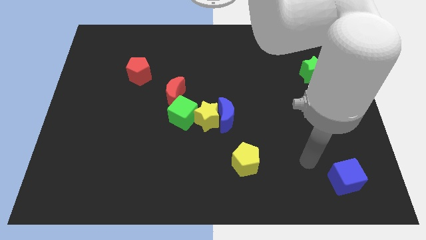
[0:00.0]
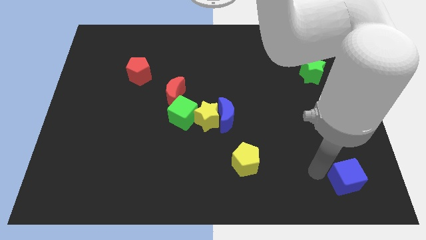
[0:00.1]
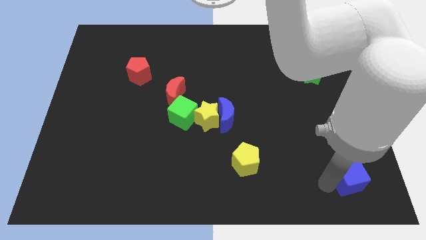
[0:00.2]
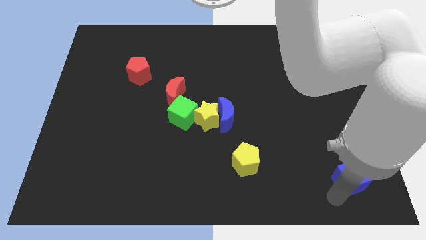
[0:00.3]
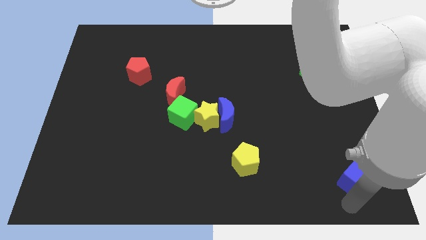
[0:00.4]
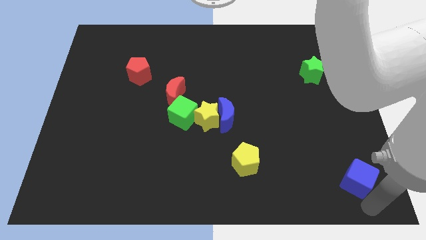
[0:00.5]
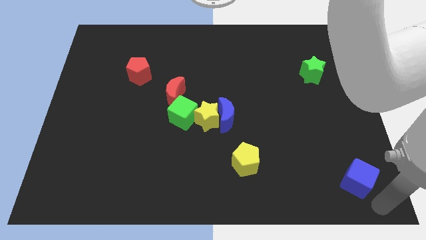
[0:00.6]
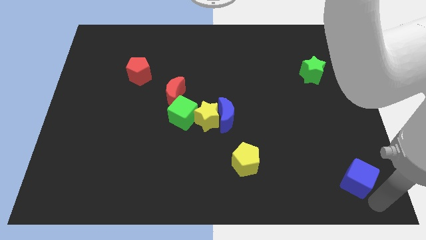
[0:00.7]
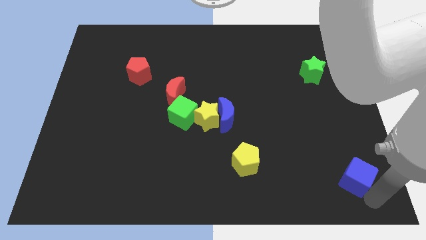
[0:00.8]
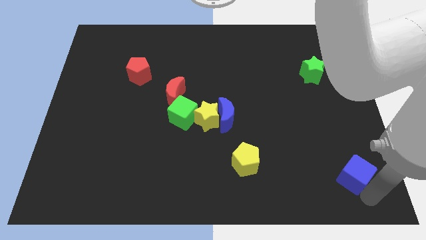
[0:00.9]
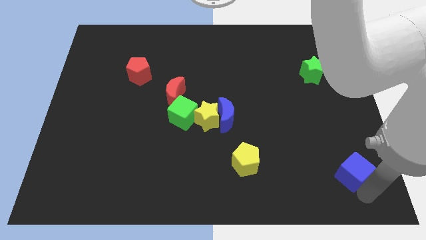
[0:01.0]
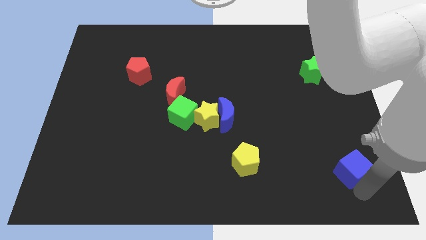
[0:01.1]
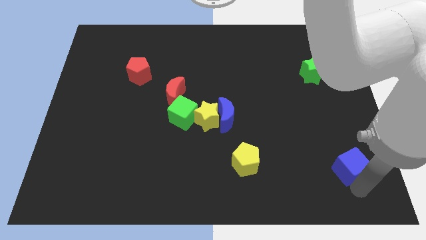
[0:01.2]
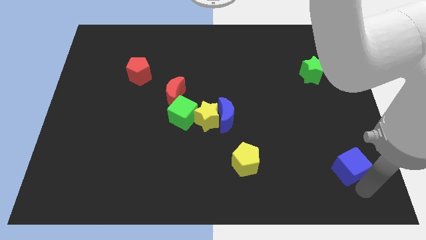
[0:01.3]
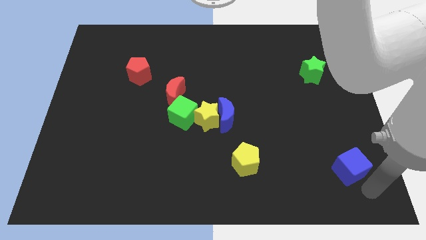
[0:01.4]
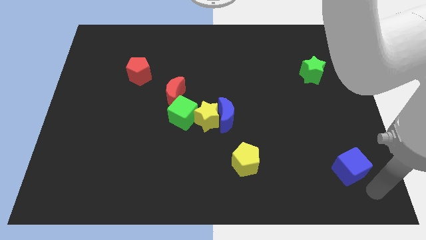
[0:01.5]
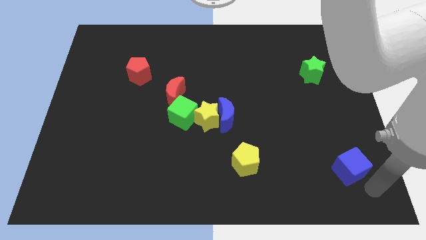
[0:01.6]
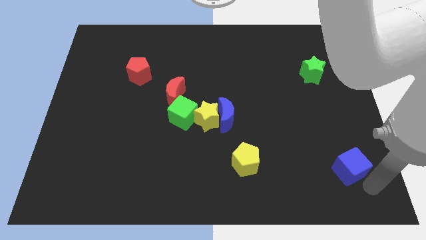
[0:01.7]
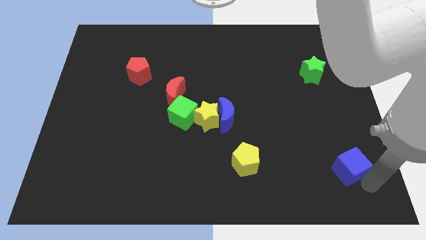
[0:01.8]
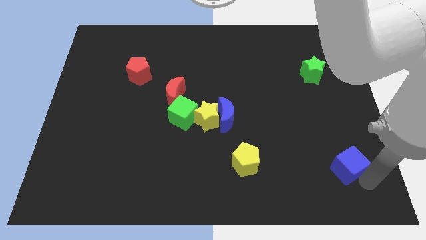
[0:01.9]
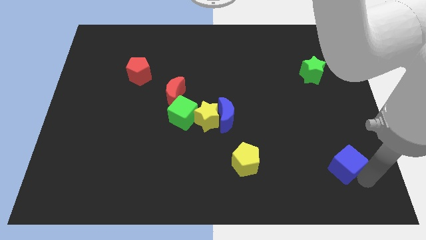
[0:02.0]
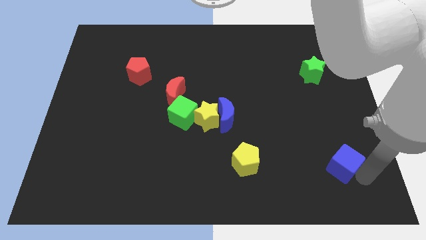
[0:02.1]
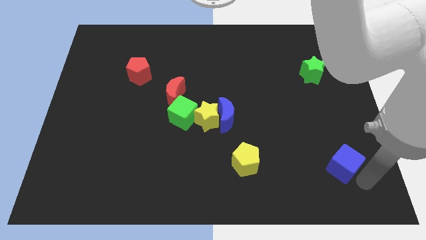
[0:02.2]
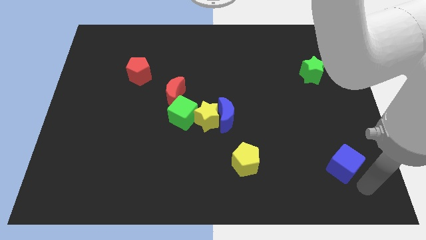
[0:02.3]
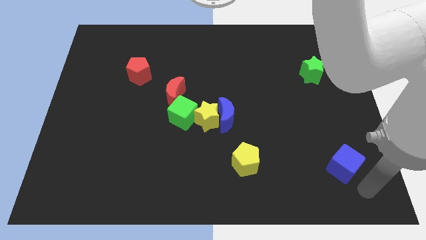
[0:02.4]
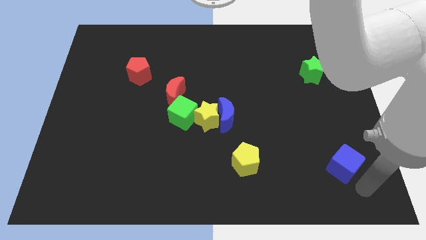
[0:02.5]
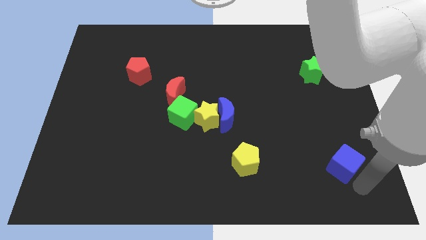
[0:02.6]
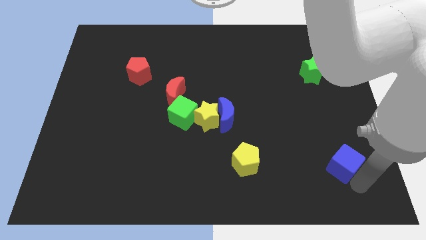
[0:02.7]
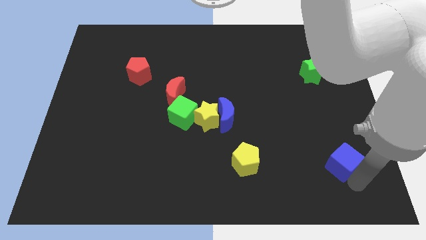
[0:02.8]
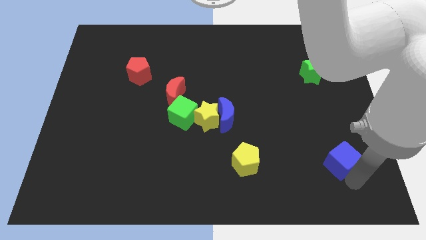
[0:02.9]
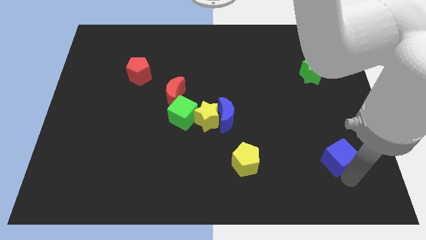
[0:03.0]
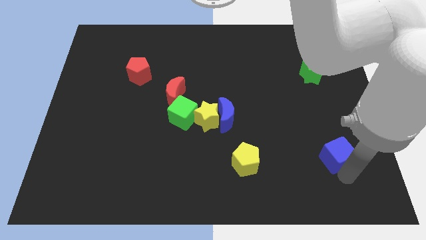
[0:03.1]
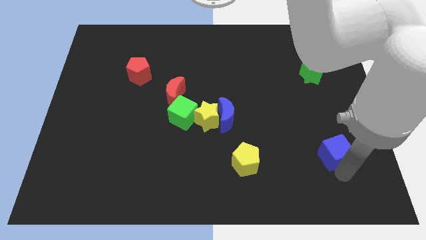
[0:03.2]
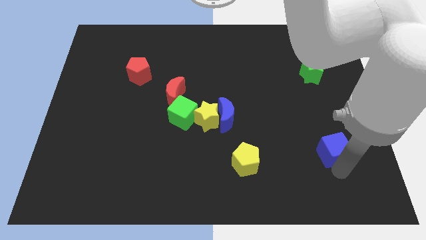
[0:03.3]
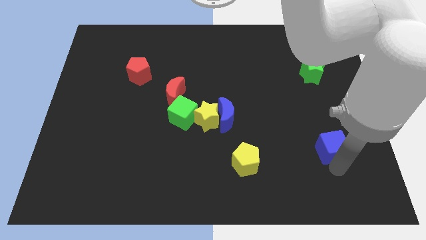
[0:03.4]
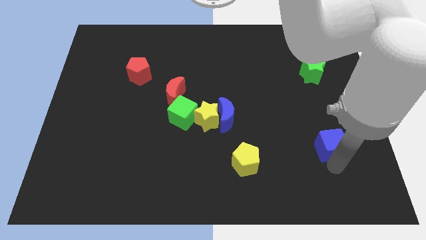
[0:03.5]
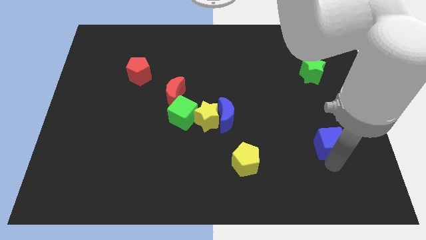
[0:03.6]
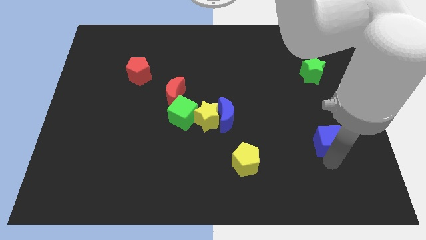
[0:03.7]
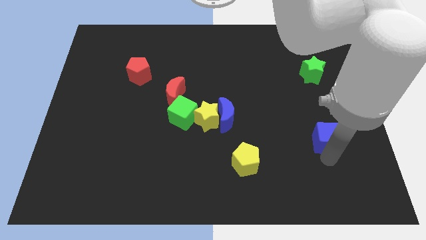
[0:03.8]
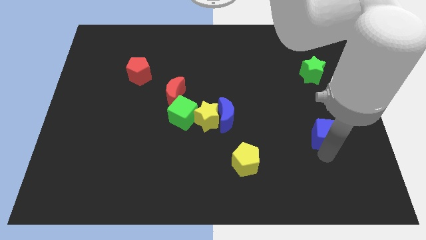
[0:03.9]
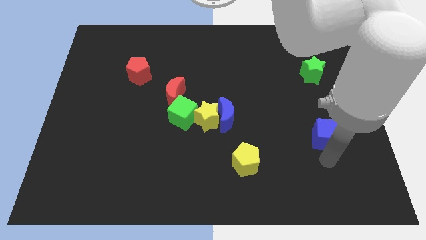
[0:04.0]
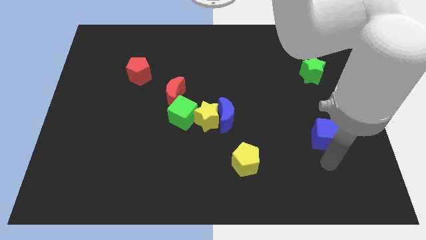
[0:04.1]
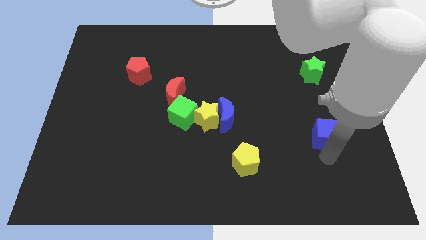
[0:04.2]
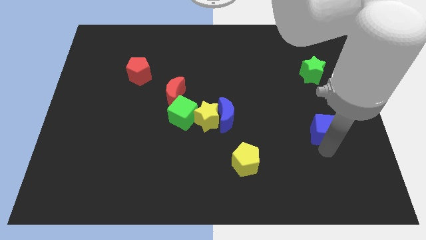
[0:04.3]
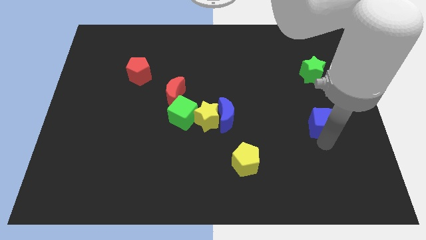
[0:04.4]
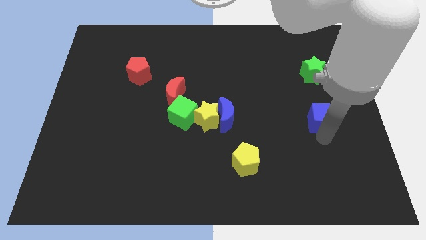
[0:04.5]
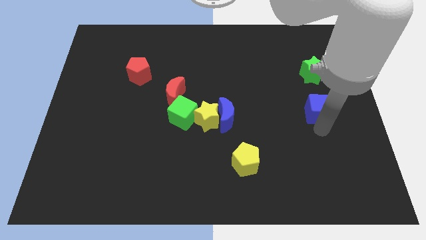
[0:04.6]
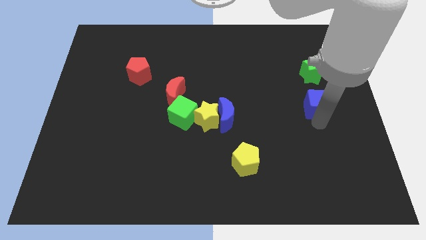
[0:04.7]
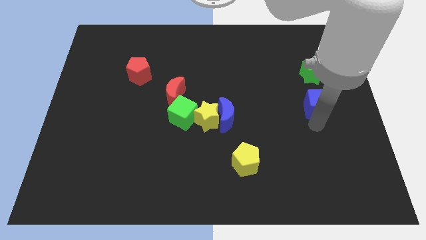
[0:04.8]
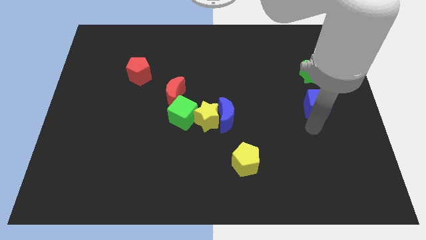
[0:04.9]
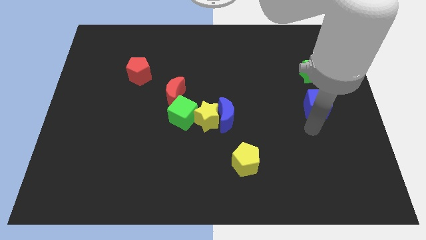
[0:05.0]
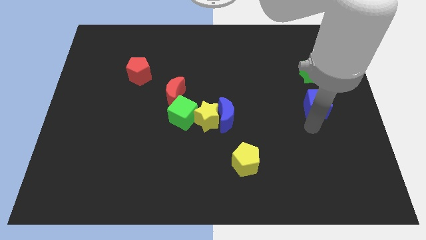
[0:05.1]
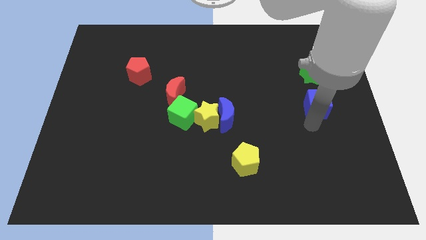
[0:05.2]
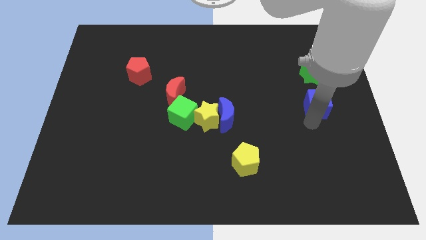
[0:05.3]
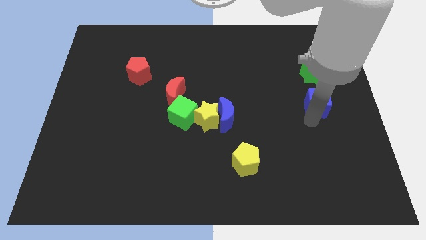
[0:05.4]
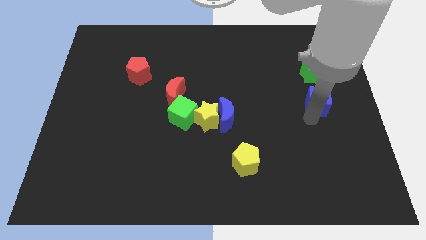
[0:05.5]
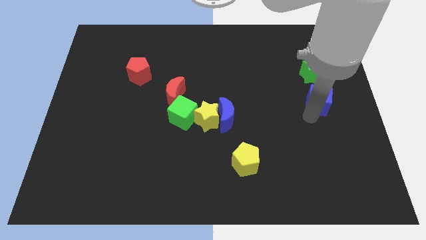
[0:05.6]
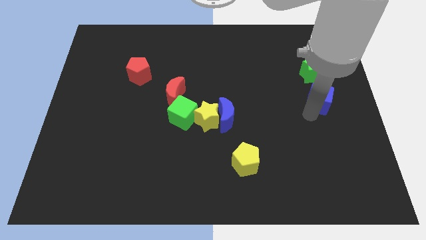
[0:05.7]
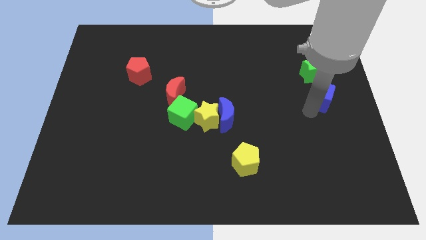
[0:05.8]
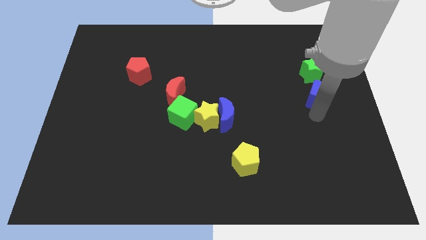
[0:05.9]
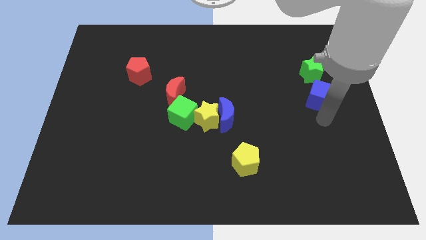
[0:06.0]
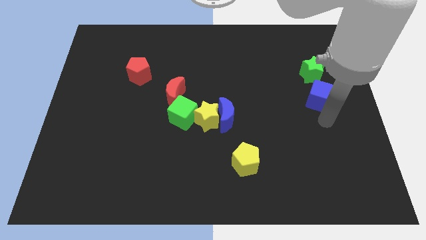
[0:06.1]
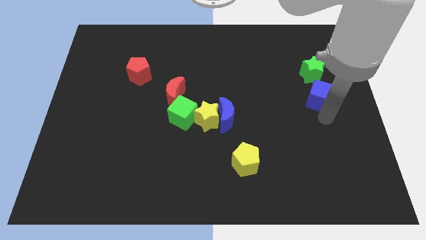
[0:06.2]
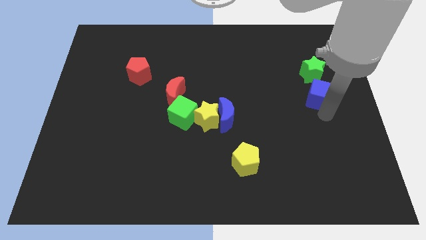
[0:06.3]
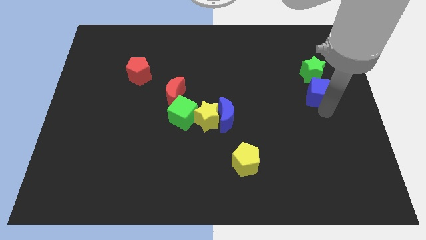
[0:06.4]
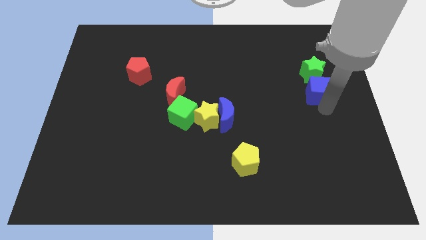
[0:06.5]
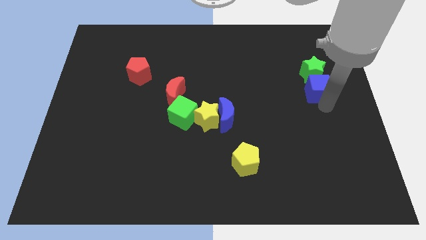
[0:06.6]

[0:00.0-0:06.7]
put the blue cube next to the green star
